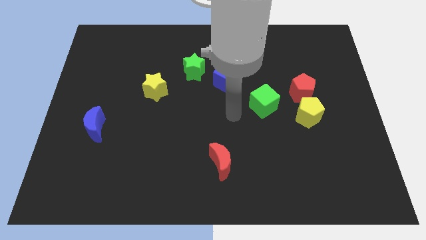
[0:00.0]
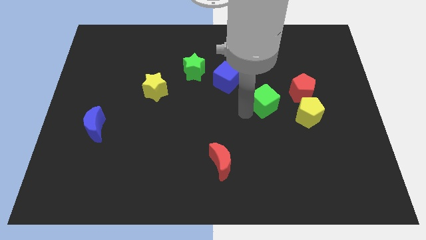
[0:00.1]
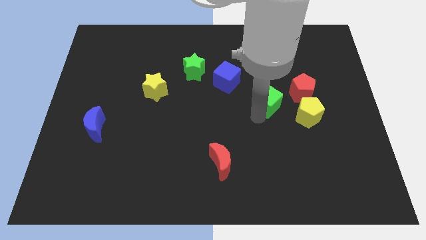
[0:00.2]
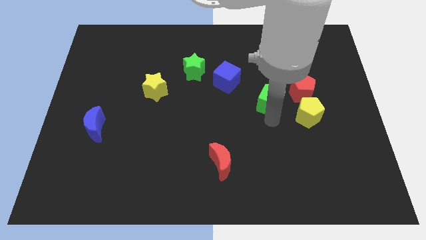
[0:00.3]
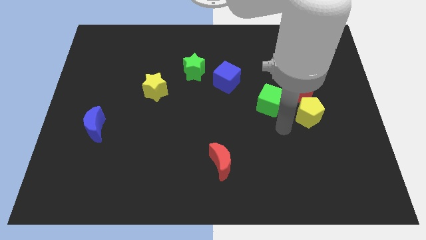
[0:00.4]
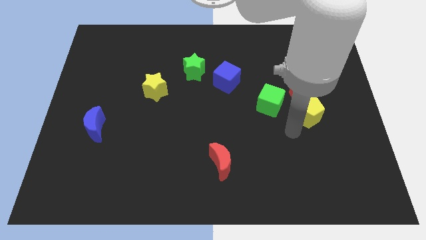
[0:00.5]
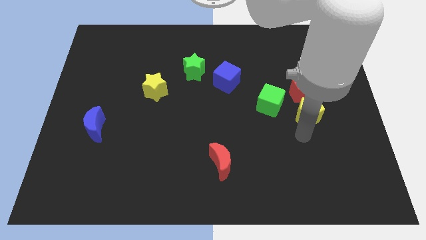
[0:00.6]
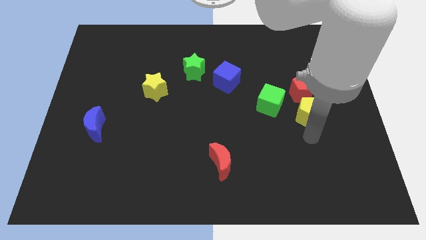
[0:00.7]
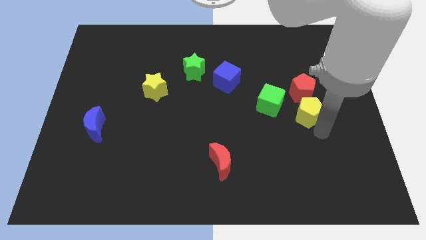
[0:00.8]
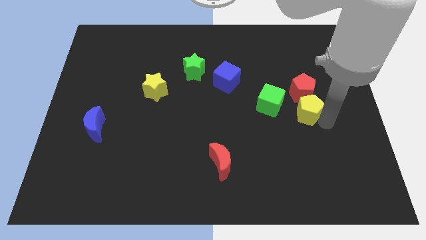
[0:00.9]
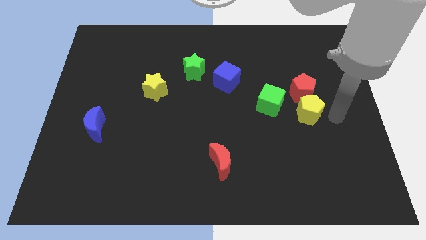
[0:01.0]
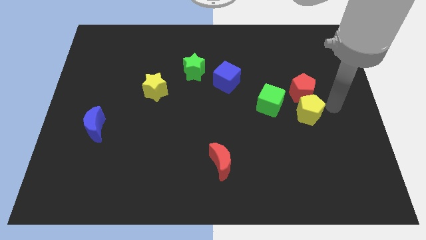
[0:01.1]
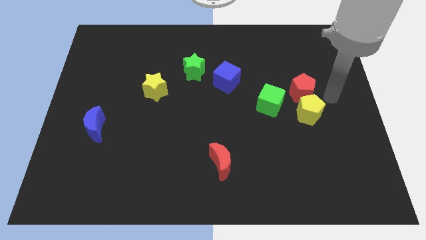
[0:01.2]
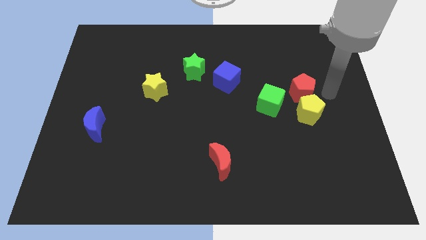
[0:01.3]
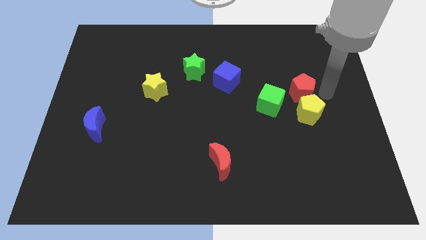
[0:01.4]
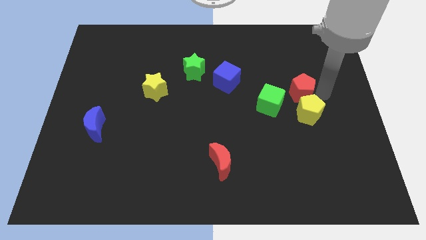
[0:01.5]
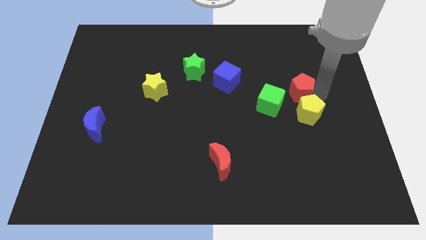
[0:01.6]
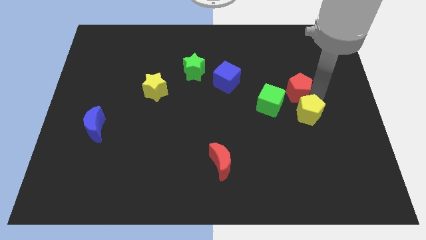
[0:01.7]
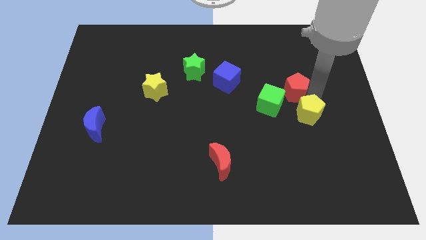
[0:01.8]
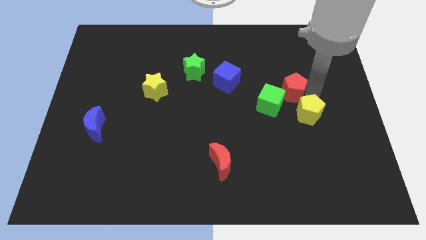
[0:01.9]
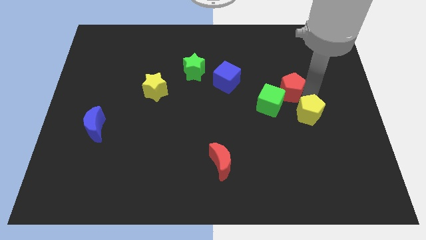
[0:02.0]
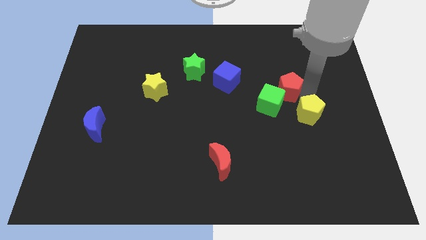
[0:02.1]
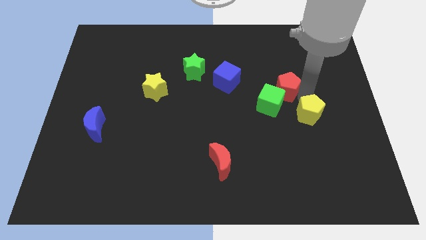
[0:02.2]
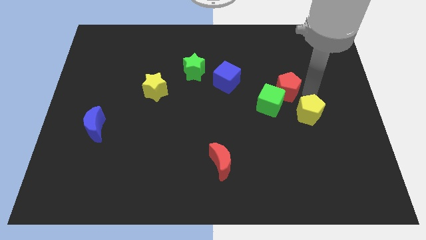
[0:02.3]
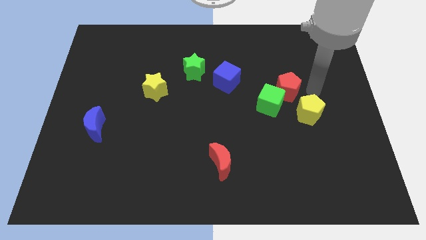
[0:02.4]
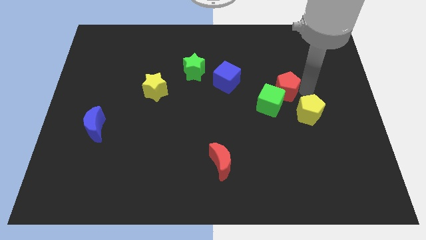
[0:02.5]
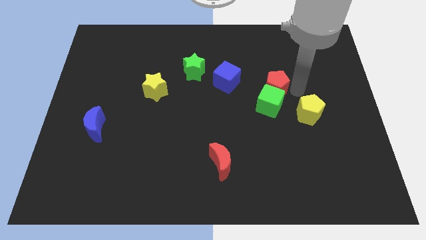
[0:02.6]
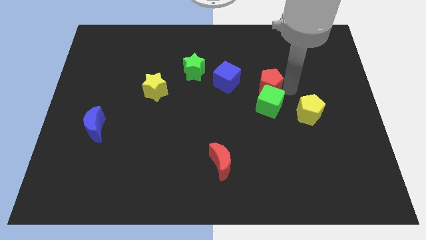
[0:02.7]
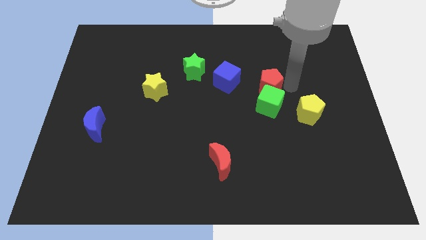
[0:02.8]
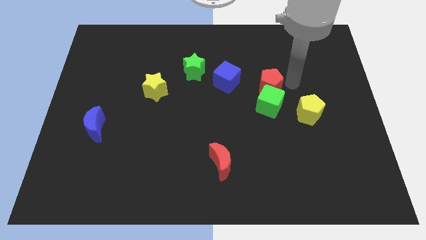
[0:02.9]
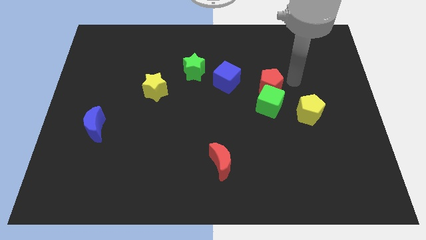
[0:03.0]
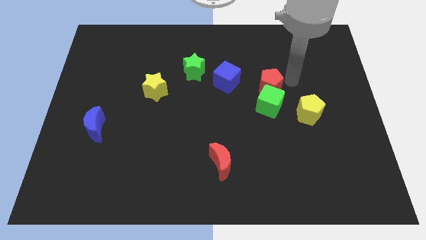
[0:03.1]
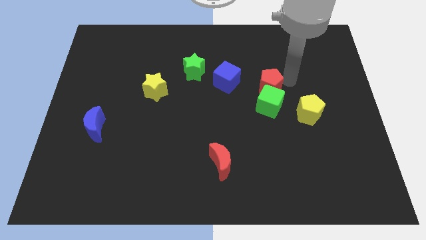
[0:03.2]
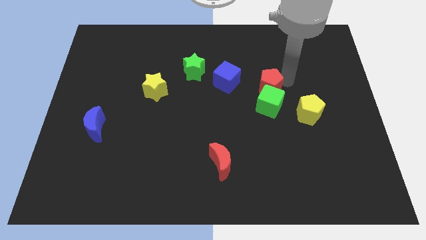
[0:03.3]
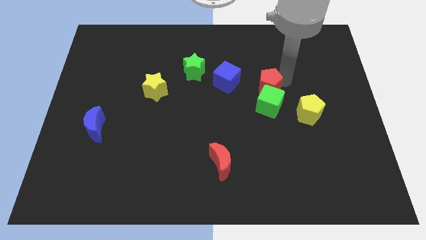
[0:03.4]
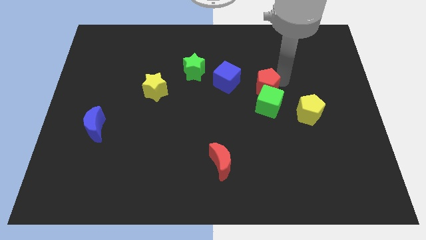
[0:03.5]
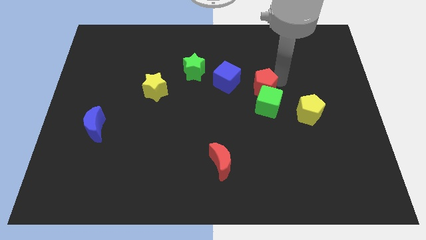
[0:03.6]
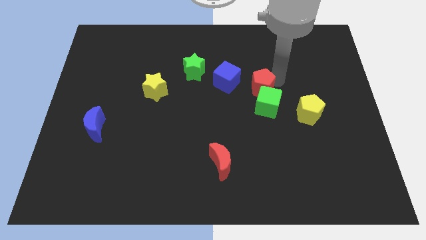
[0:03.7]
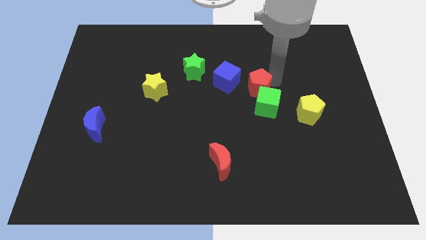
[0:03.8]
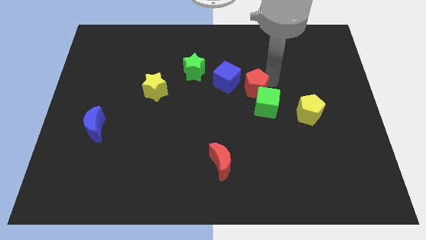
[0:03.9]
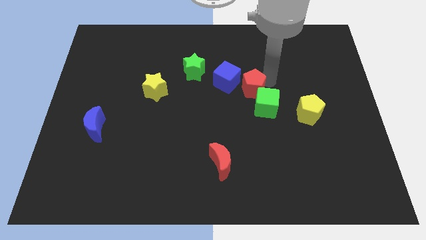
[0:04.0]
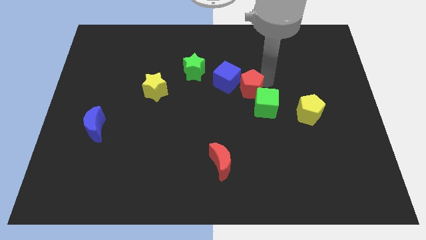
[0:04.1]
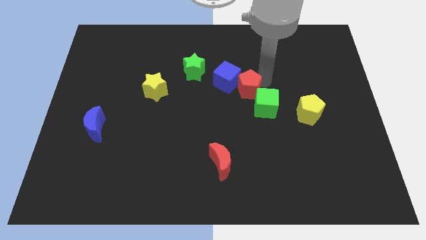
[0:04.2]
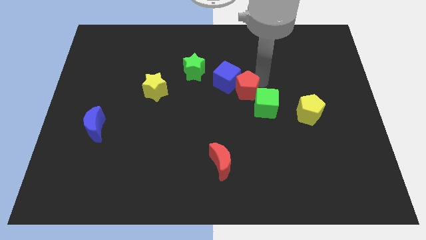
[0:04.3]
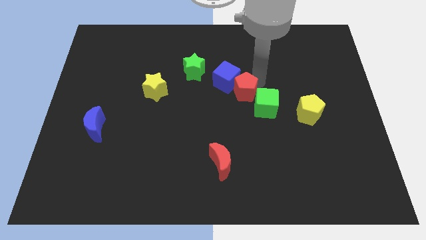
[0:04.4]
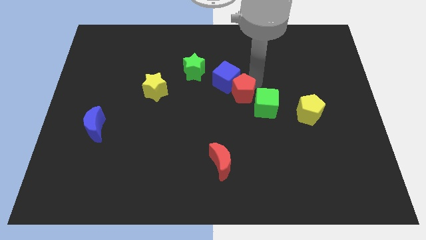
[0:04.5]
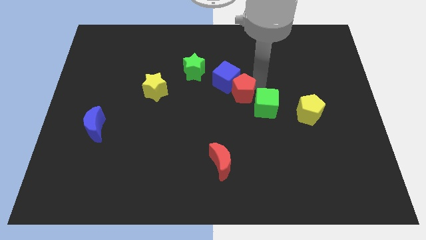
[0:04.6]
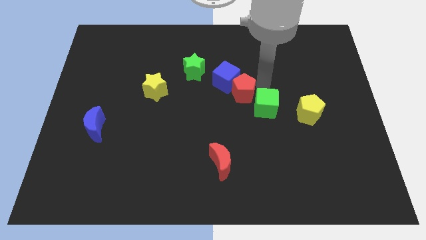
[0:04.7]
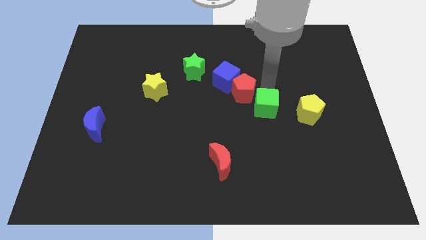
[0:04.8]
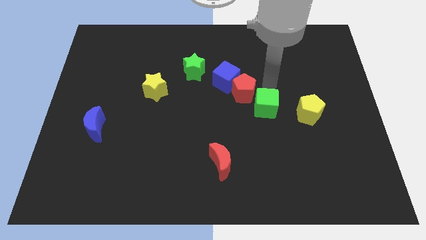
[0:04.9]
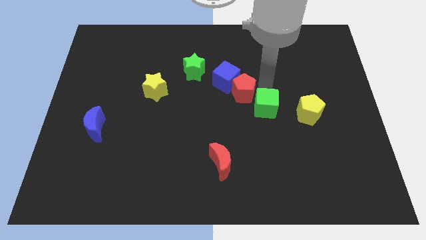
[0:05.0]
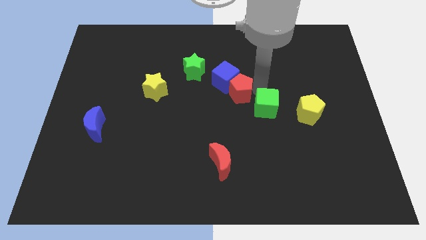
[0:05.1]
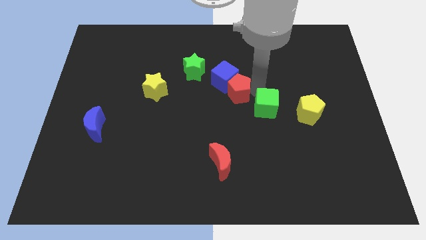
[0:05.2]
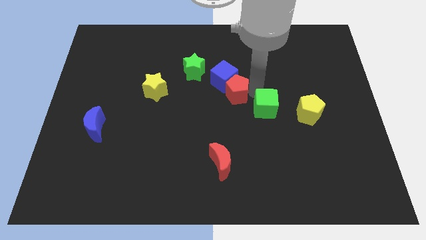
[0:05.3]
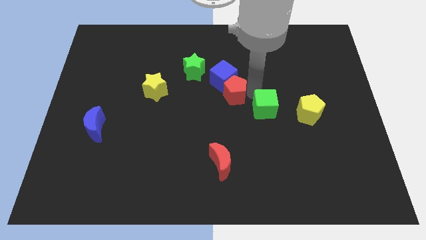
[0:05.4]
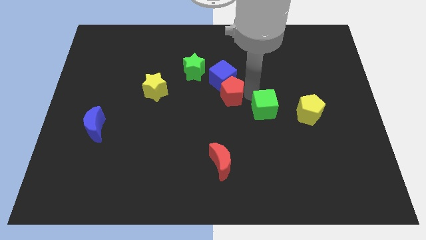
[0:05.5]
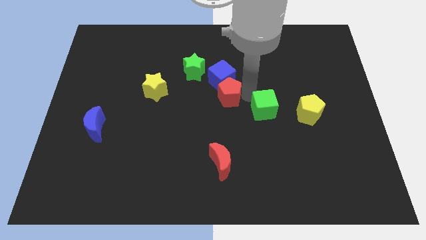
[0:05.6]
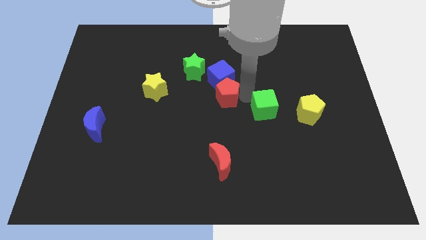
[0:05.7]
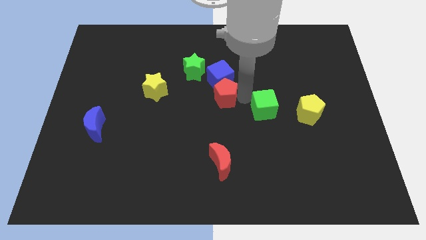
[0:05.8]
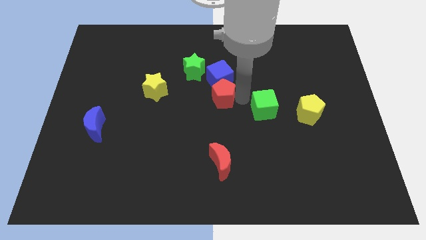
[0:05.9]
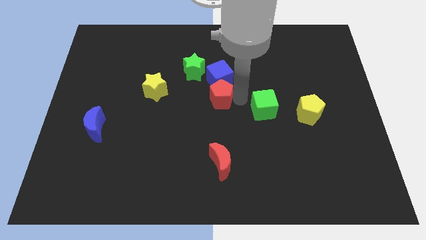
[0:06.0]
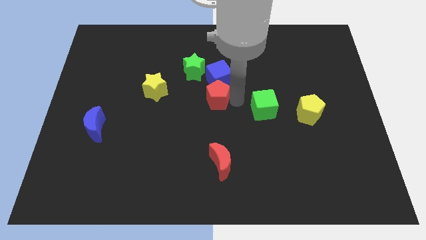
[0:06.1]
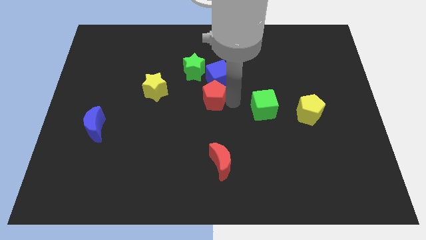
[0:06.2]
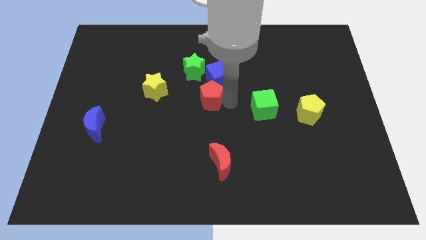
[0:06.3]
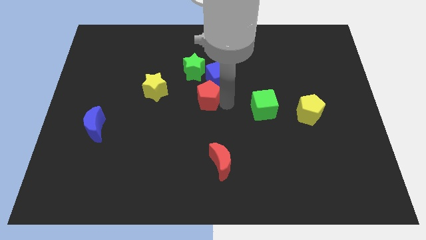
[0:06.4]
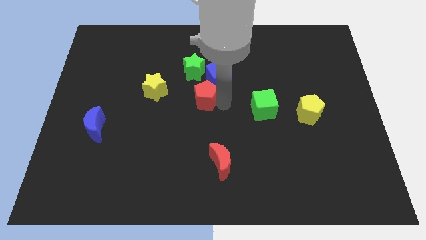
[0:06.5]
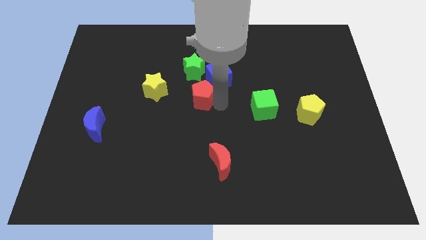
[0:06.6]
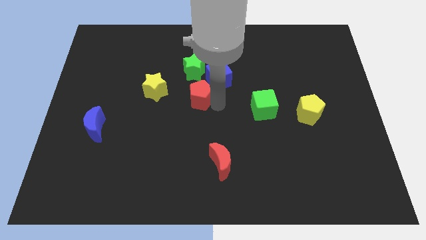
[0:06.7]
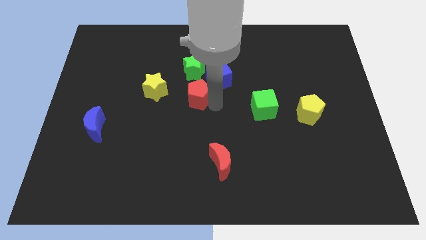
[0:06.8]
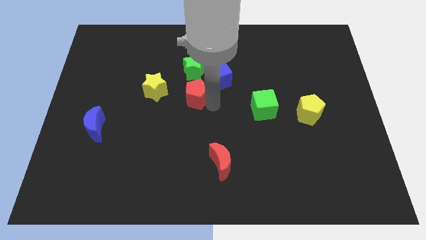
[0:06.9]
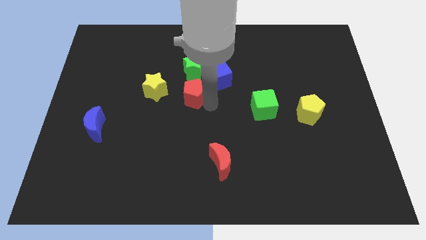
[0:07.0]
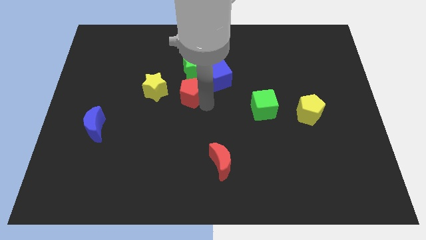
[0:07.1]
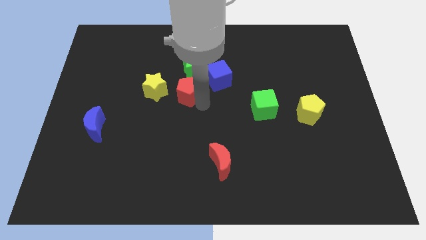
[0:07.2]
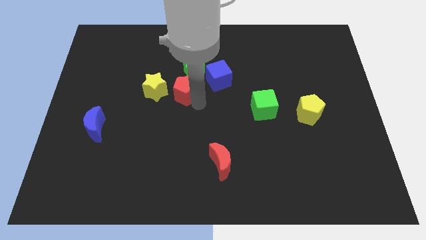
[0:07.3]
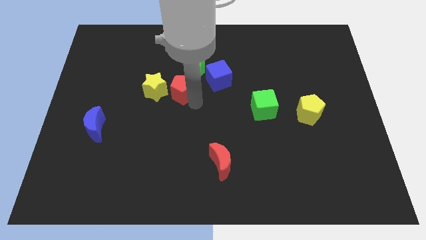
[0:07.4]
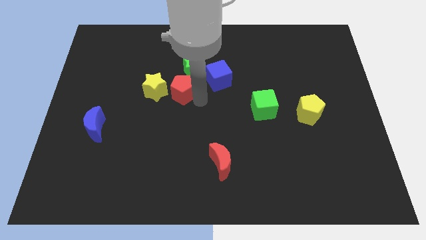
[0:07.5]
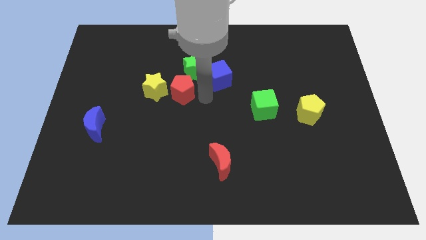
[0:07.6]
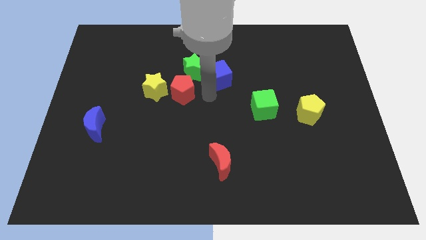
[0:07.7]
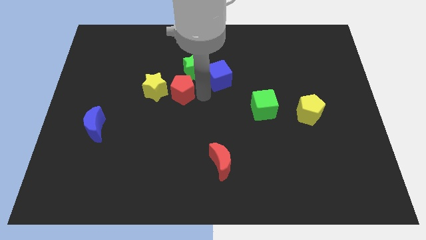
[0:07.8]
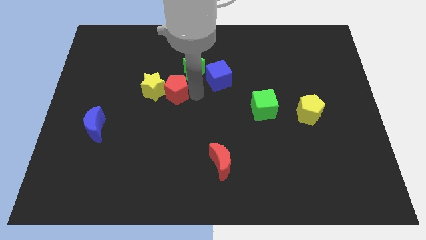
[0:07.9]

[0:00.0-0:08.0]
push the red pentagon next to the yellow star
